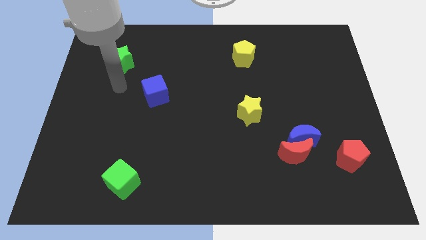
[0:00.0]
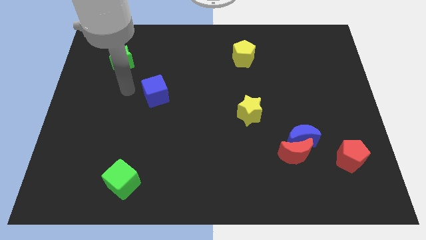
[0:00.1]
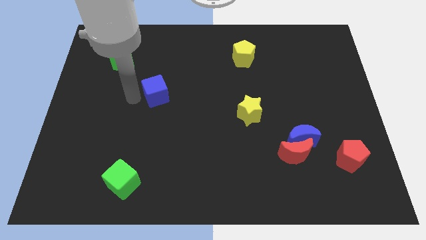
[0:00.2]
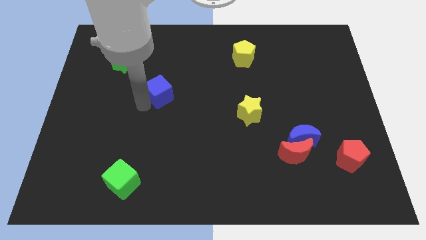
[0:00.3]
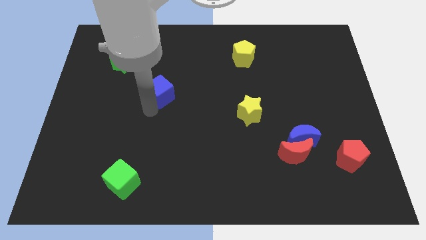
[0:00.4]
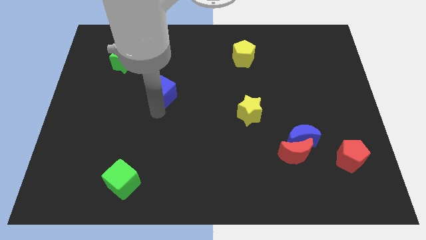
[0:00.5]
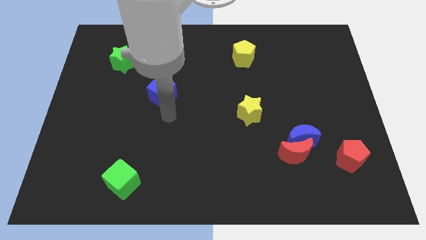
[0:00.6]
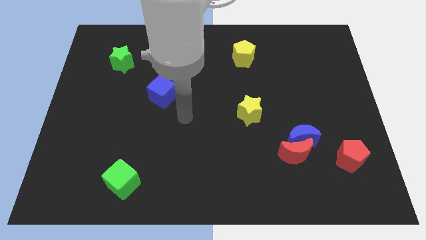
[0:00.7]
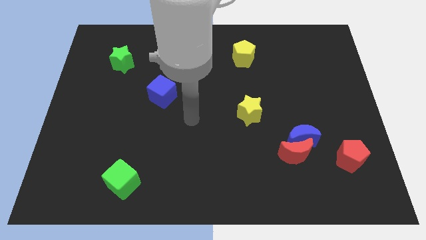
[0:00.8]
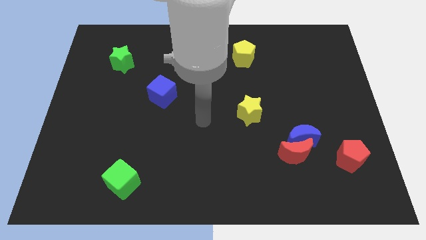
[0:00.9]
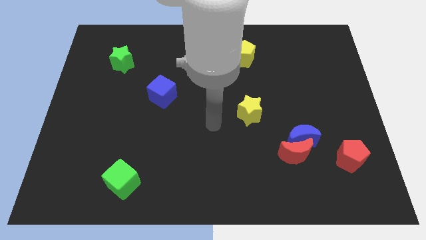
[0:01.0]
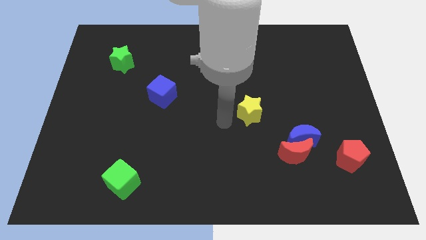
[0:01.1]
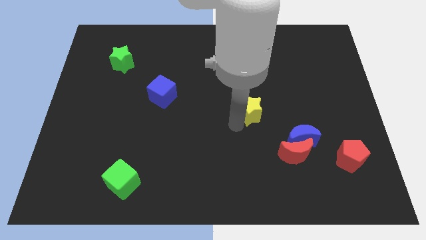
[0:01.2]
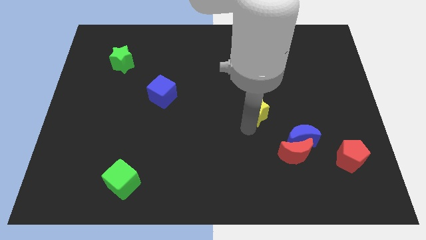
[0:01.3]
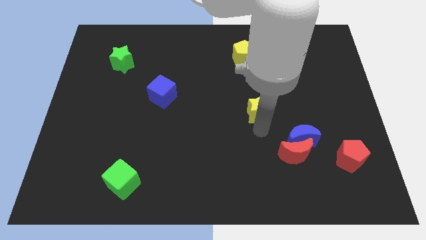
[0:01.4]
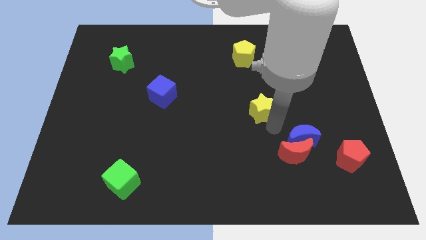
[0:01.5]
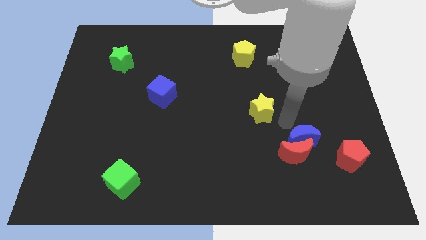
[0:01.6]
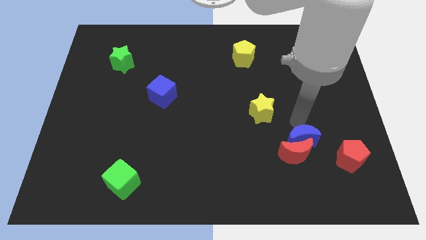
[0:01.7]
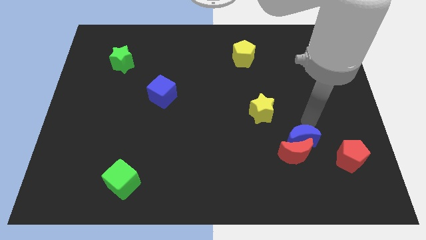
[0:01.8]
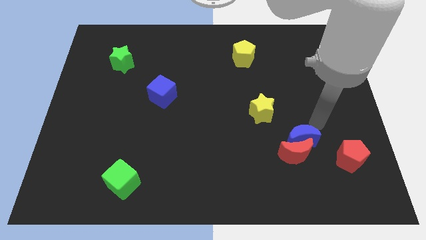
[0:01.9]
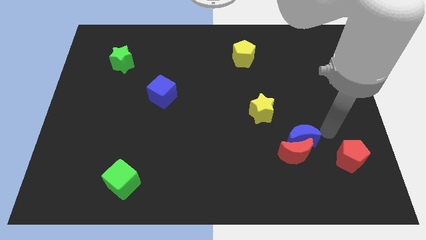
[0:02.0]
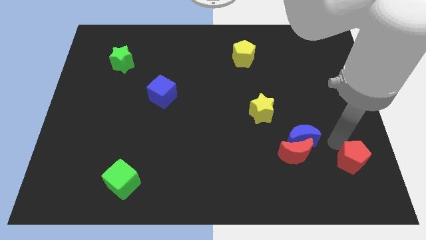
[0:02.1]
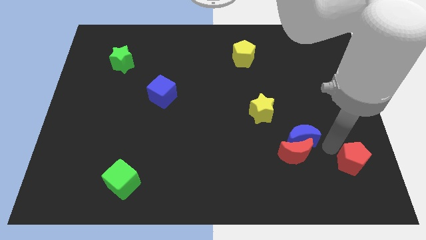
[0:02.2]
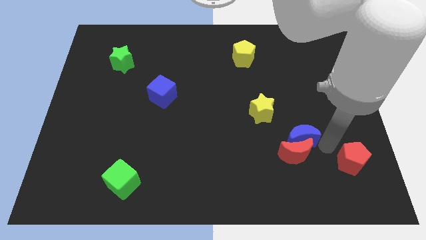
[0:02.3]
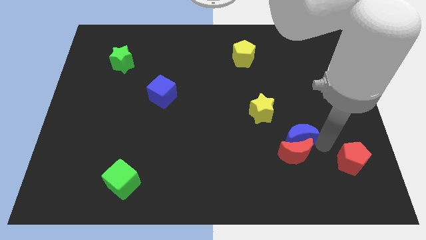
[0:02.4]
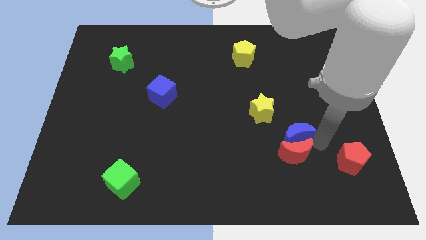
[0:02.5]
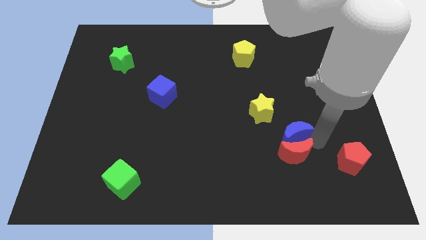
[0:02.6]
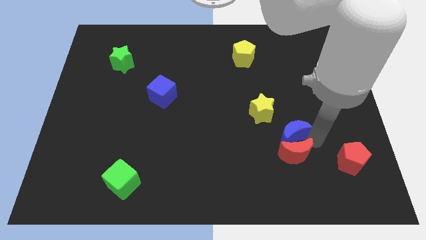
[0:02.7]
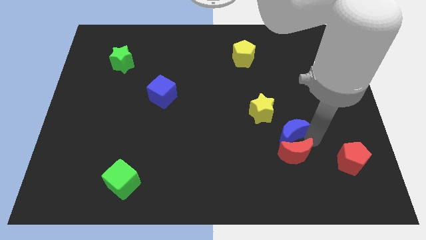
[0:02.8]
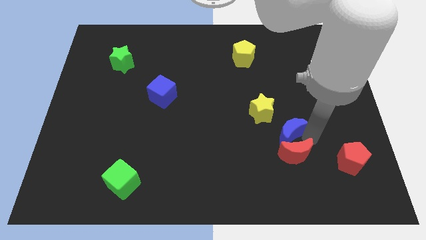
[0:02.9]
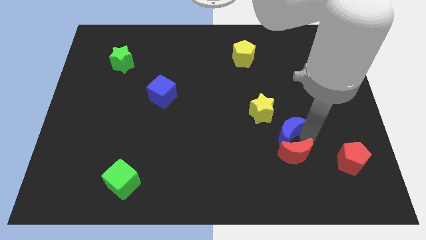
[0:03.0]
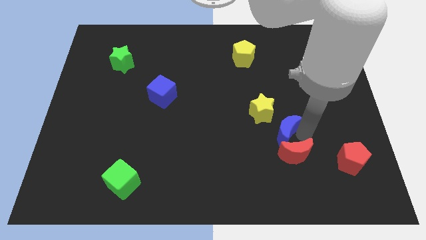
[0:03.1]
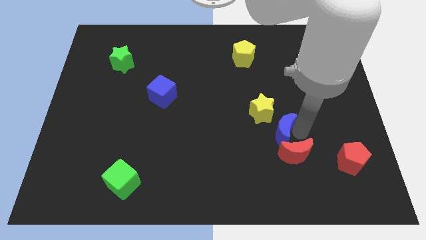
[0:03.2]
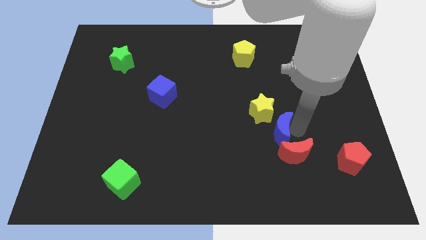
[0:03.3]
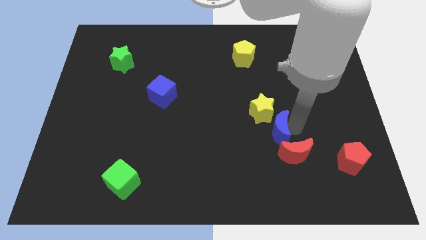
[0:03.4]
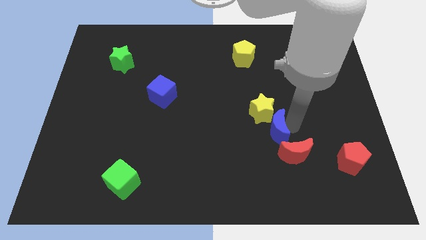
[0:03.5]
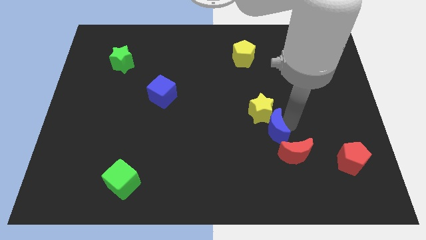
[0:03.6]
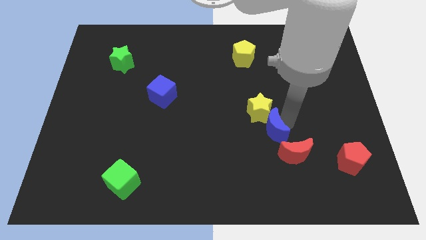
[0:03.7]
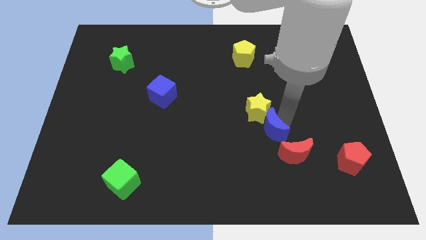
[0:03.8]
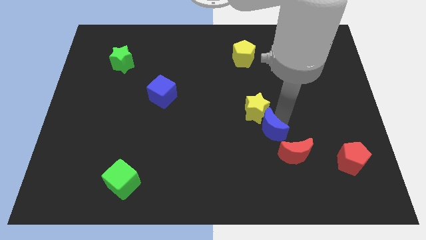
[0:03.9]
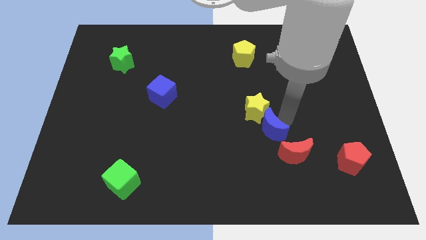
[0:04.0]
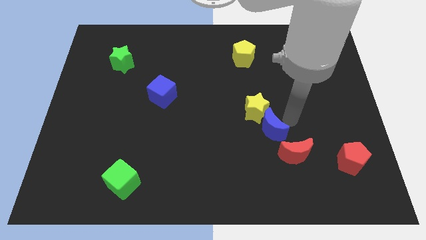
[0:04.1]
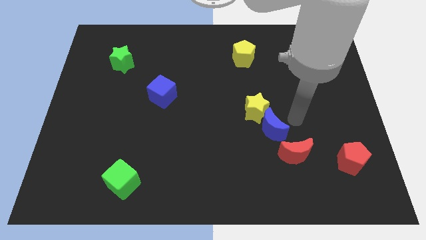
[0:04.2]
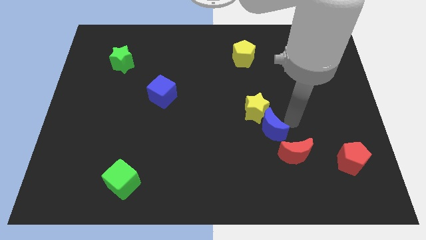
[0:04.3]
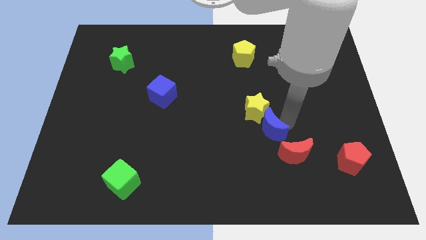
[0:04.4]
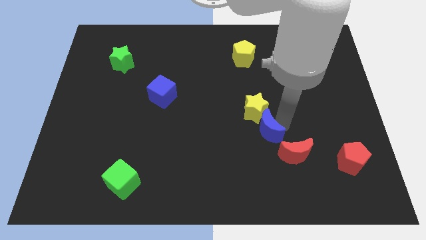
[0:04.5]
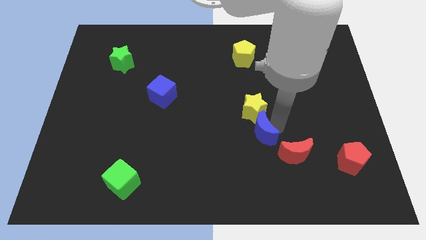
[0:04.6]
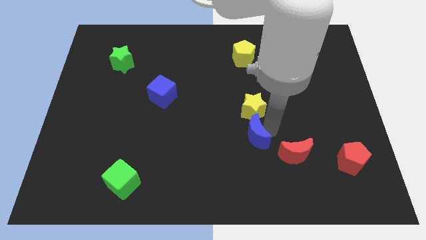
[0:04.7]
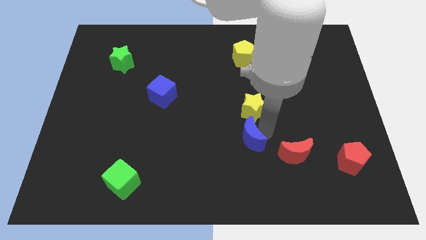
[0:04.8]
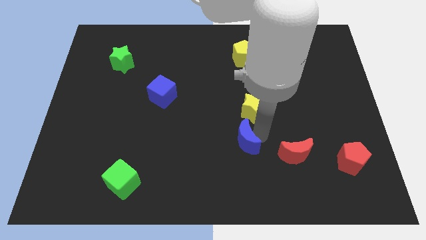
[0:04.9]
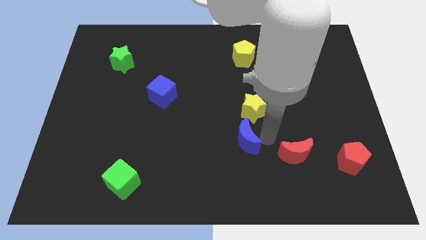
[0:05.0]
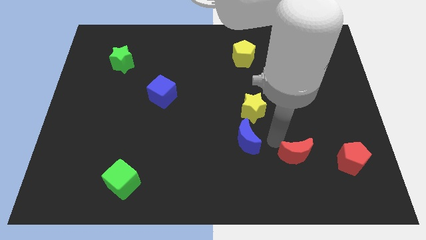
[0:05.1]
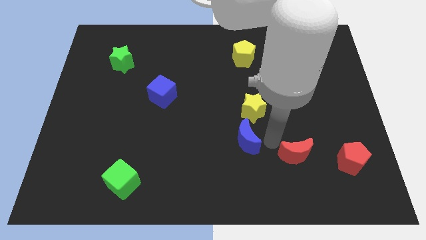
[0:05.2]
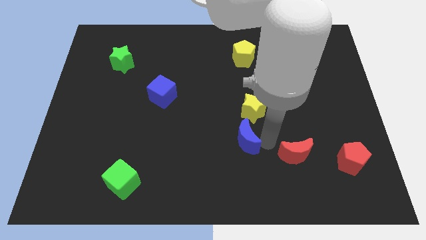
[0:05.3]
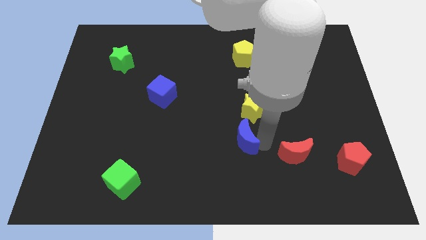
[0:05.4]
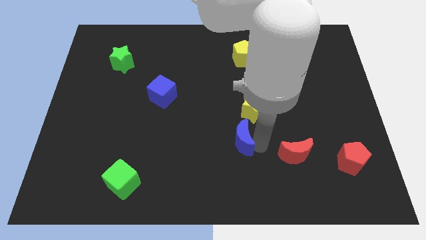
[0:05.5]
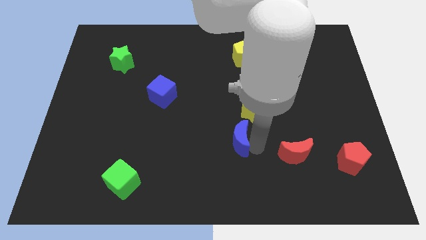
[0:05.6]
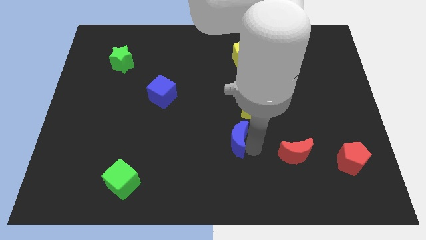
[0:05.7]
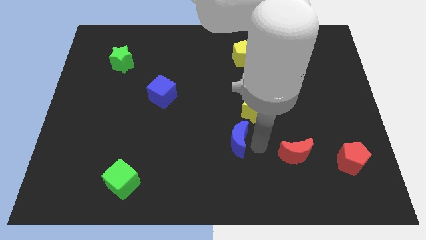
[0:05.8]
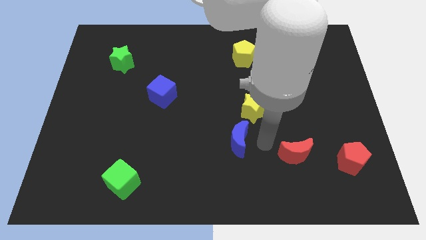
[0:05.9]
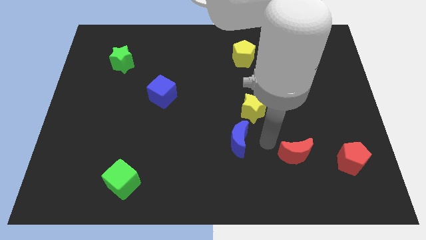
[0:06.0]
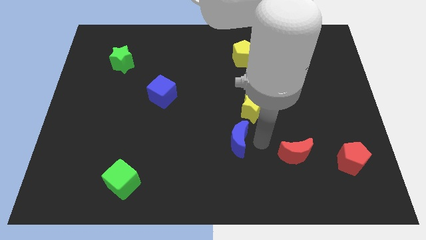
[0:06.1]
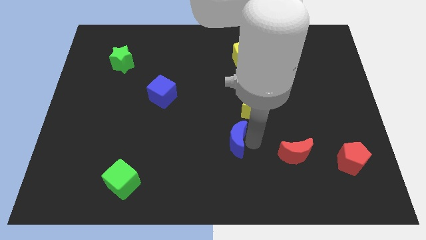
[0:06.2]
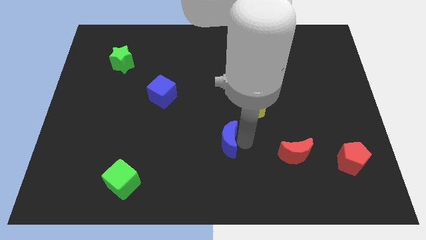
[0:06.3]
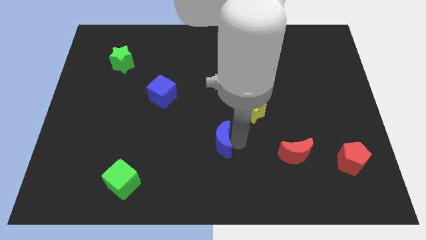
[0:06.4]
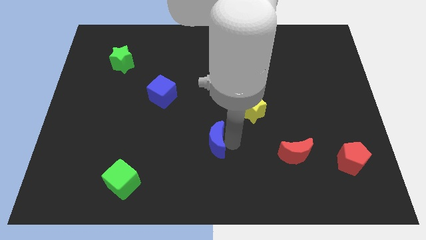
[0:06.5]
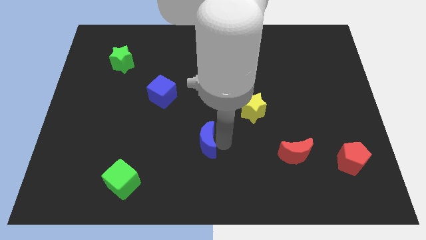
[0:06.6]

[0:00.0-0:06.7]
move the blue moon to the left

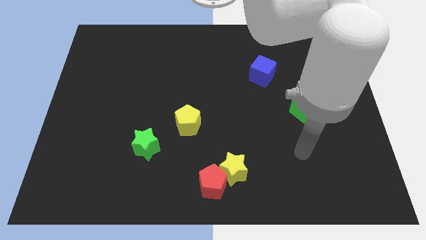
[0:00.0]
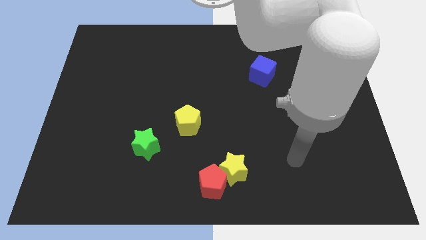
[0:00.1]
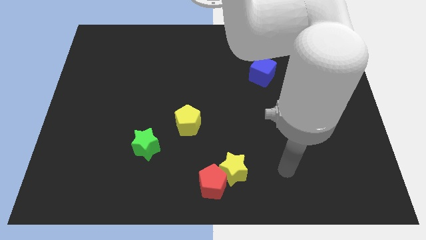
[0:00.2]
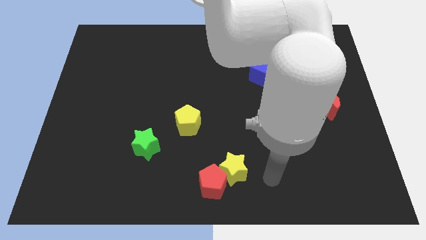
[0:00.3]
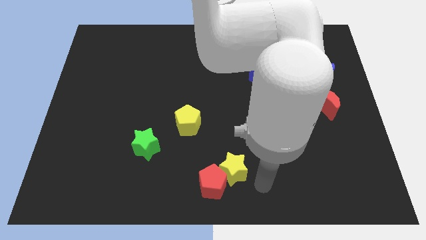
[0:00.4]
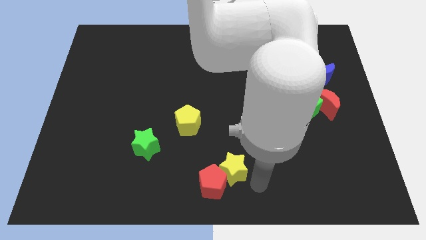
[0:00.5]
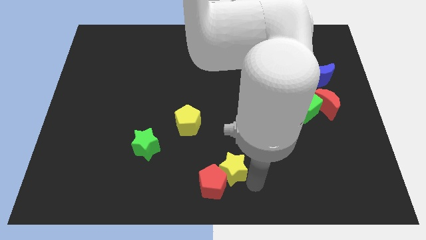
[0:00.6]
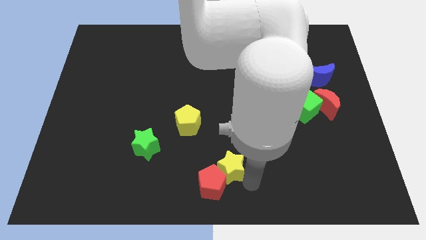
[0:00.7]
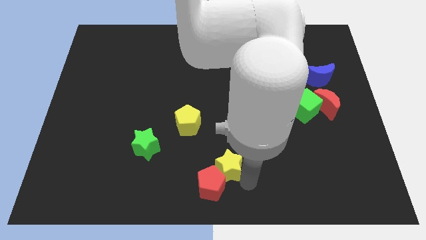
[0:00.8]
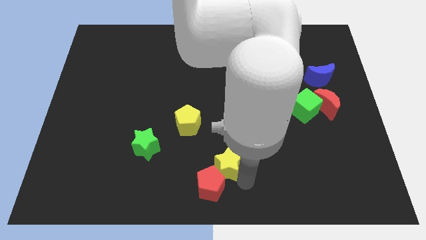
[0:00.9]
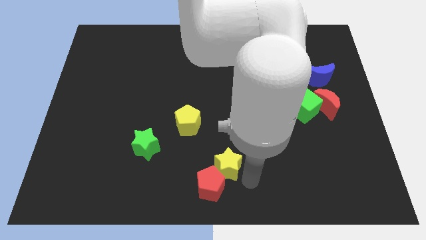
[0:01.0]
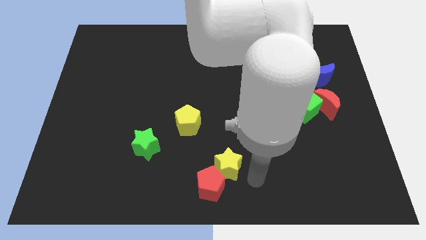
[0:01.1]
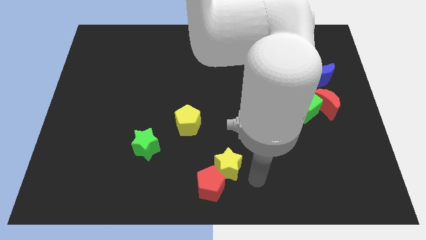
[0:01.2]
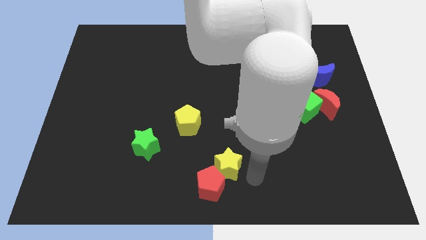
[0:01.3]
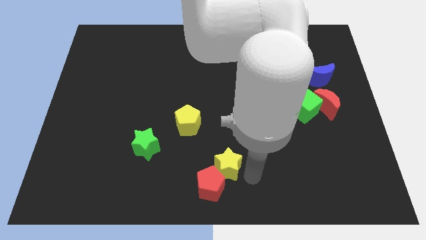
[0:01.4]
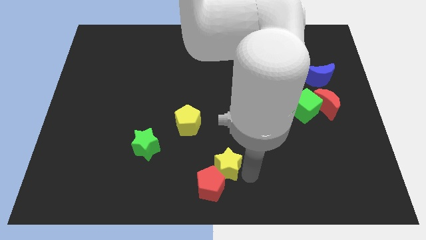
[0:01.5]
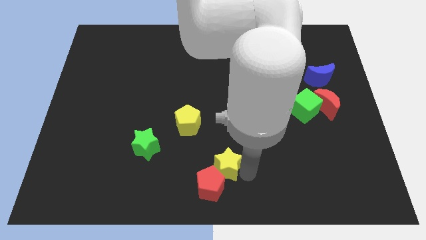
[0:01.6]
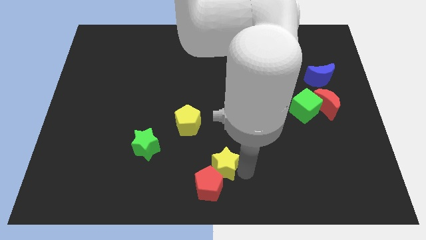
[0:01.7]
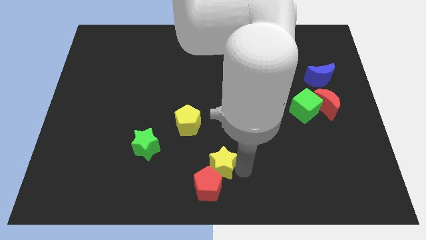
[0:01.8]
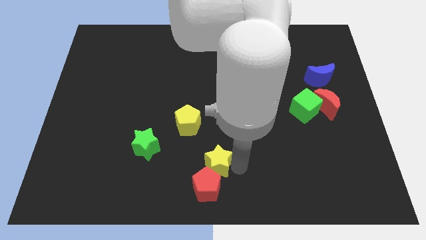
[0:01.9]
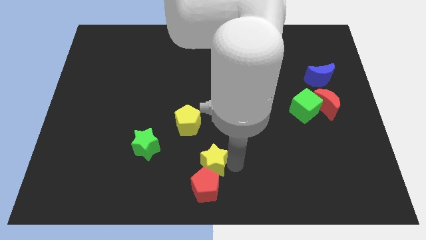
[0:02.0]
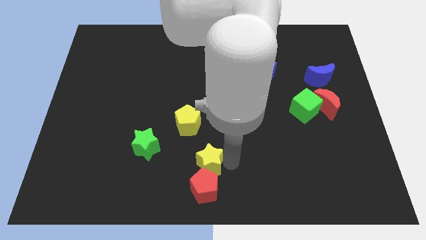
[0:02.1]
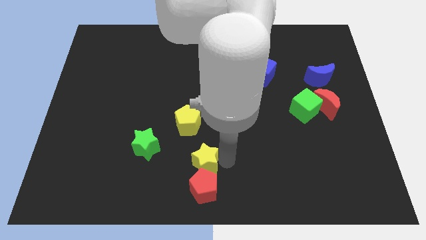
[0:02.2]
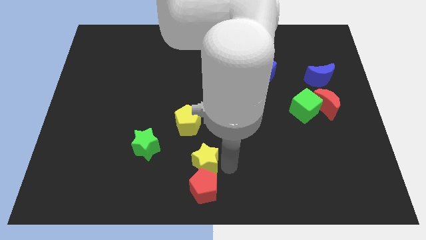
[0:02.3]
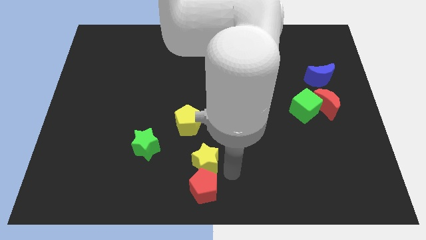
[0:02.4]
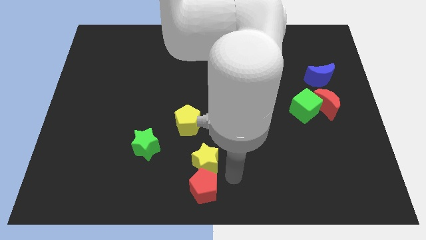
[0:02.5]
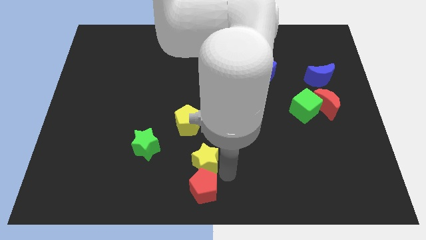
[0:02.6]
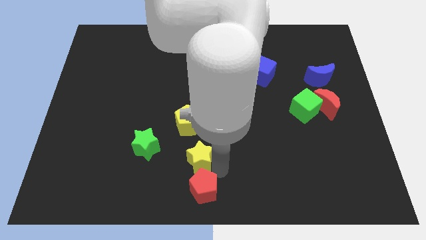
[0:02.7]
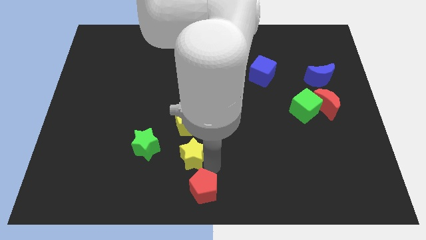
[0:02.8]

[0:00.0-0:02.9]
slide the yellow star upwards and then to the left a bit
